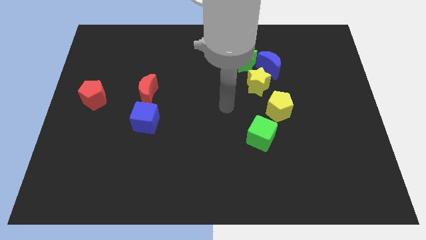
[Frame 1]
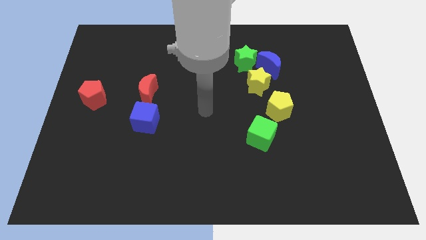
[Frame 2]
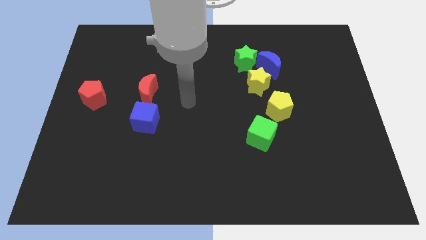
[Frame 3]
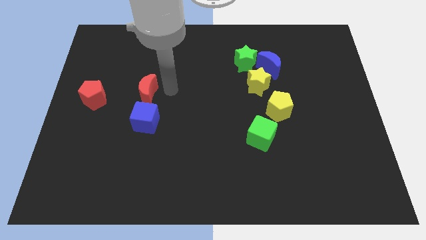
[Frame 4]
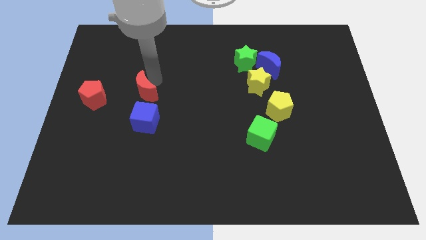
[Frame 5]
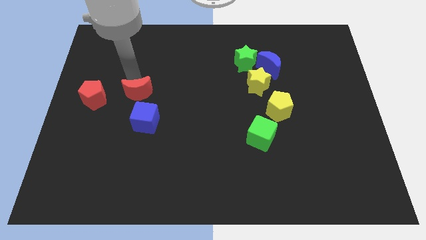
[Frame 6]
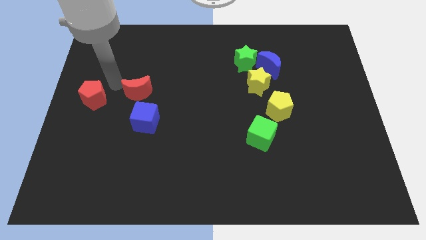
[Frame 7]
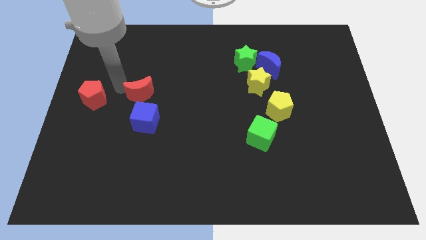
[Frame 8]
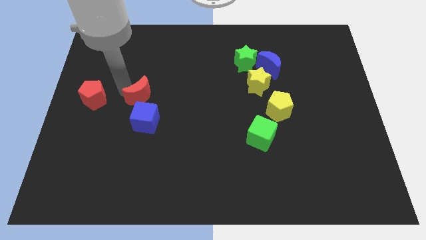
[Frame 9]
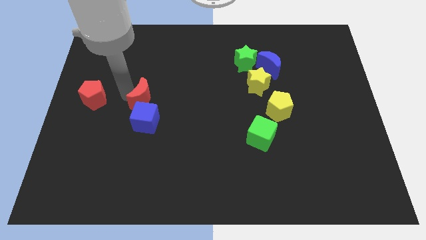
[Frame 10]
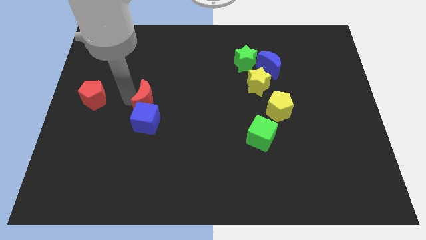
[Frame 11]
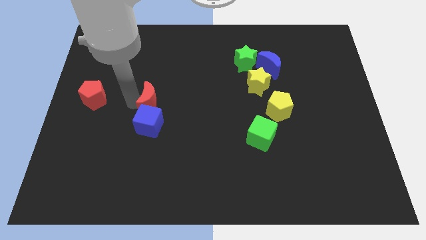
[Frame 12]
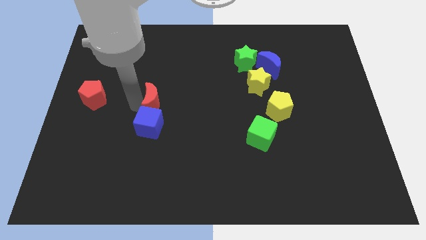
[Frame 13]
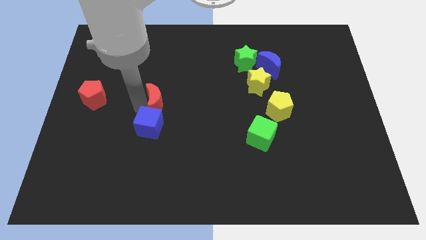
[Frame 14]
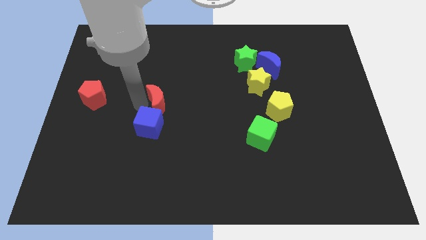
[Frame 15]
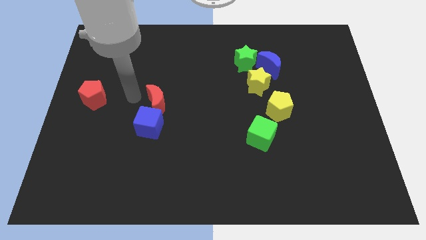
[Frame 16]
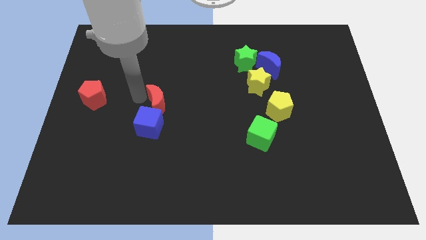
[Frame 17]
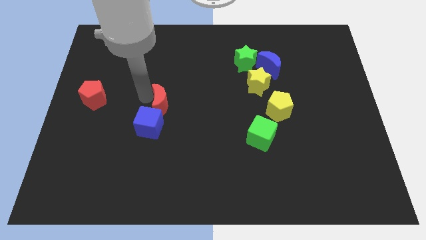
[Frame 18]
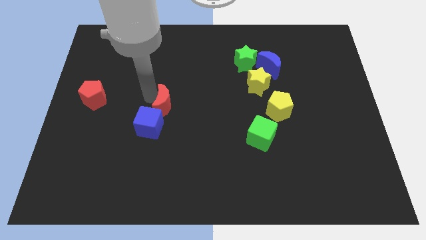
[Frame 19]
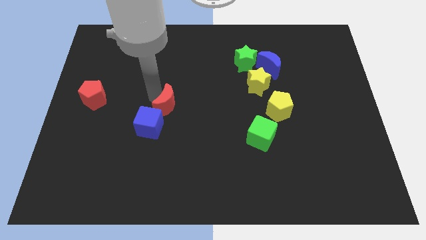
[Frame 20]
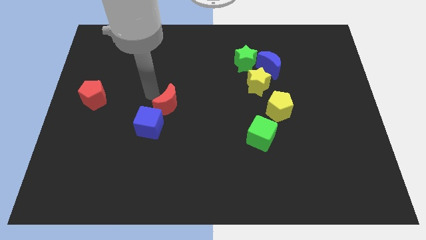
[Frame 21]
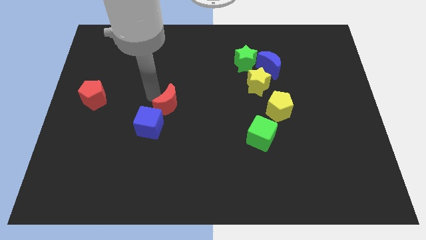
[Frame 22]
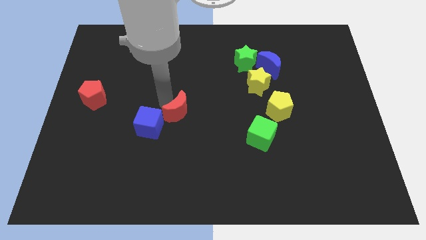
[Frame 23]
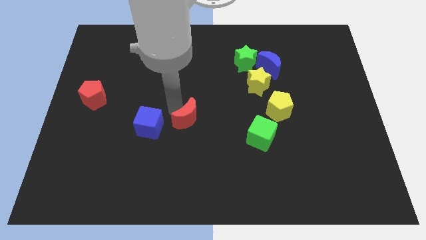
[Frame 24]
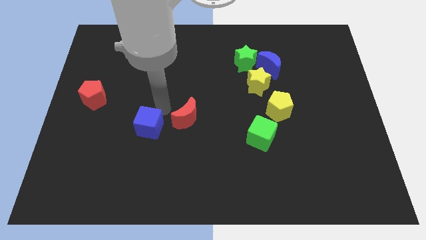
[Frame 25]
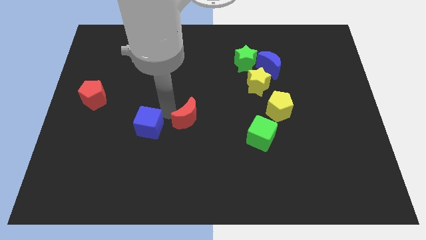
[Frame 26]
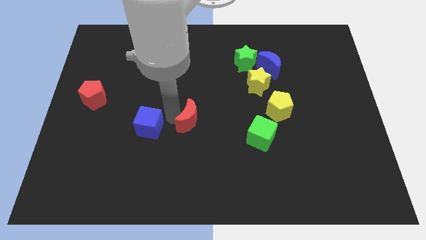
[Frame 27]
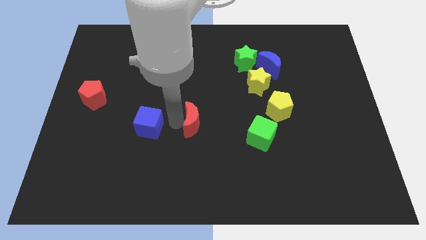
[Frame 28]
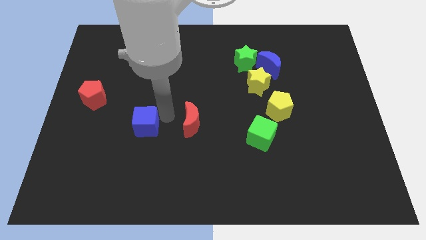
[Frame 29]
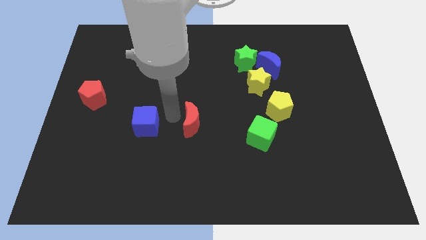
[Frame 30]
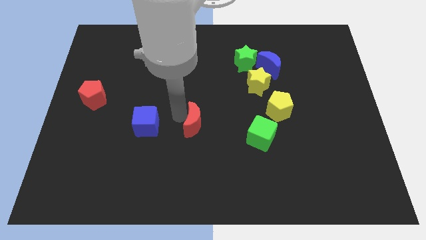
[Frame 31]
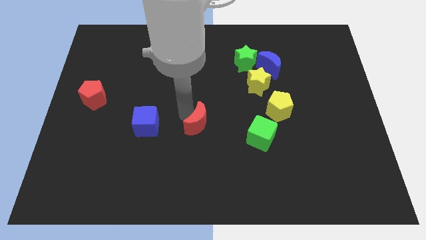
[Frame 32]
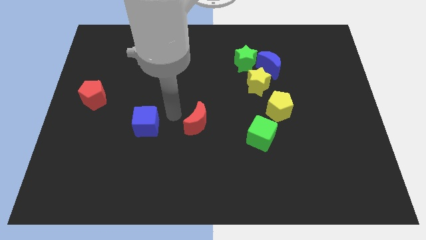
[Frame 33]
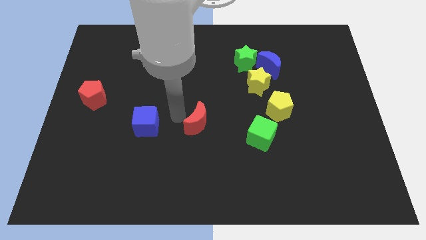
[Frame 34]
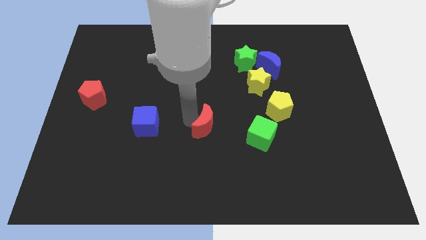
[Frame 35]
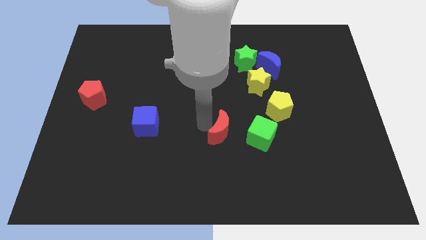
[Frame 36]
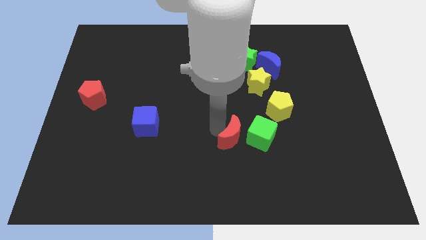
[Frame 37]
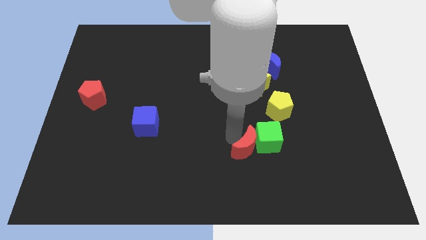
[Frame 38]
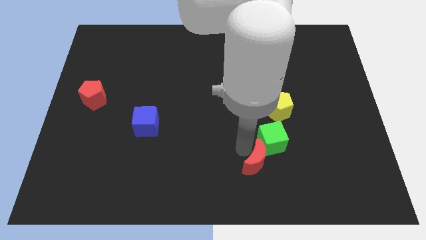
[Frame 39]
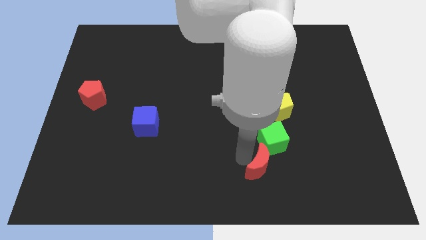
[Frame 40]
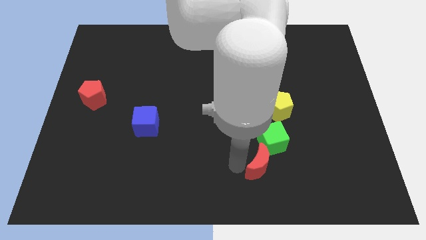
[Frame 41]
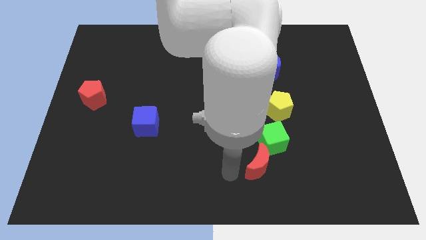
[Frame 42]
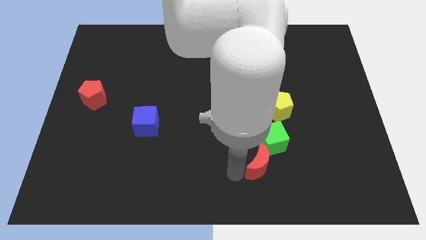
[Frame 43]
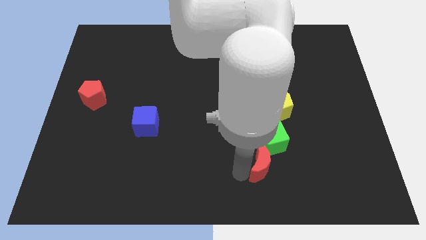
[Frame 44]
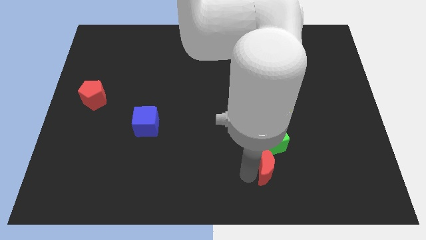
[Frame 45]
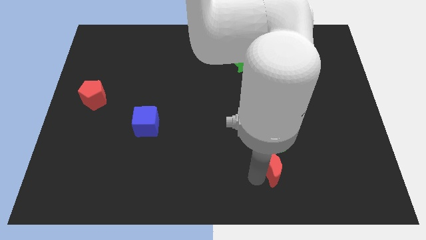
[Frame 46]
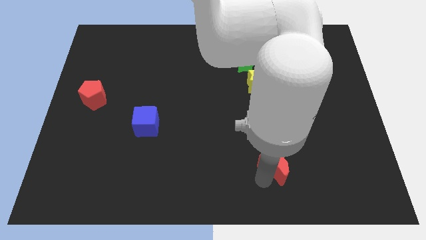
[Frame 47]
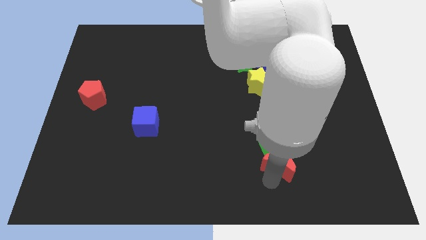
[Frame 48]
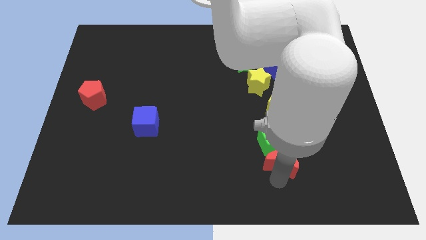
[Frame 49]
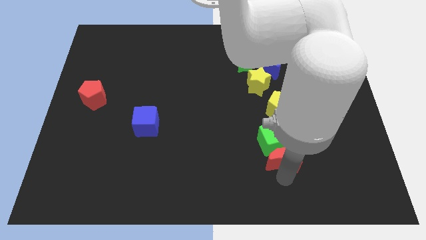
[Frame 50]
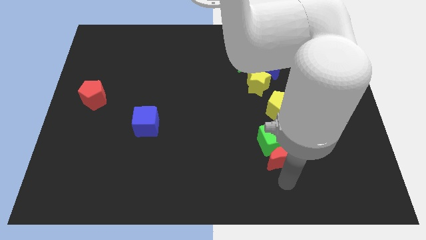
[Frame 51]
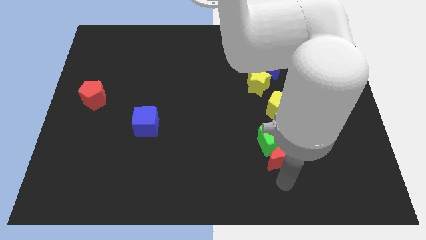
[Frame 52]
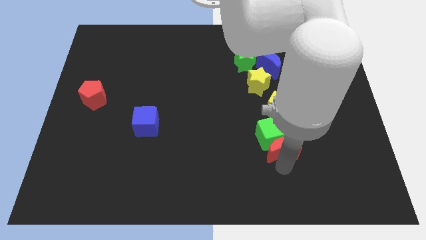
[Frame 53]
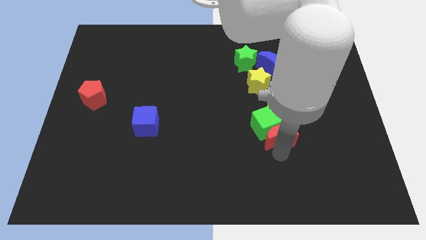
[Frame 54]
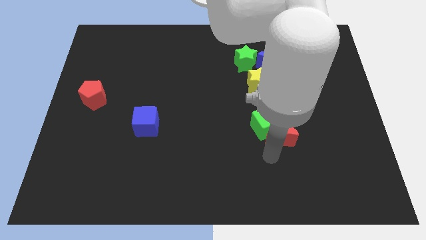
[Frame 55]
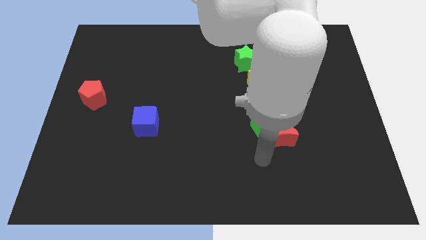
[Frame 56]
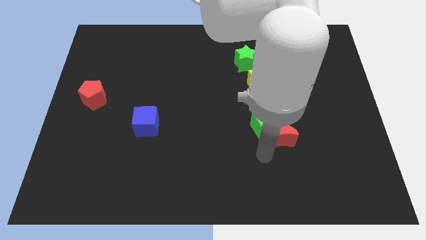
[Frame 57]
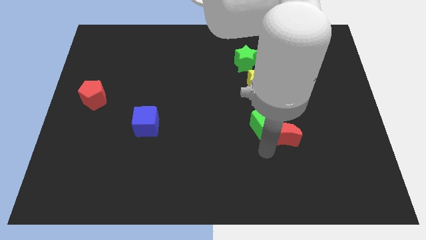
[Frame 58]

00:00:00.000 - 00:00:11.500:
slide the red moon to the right

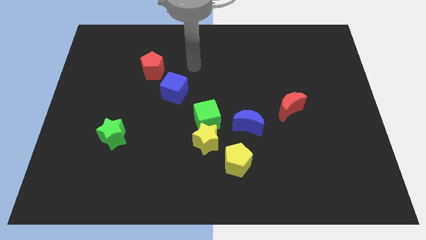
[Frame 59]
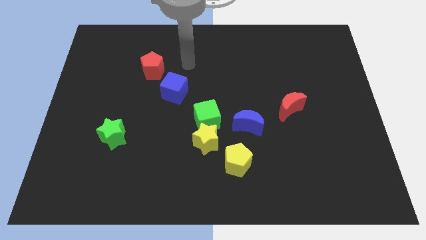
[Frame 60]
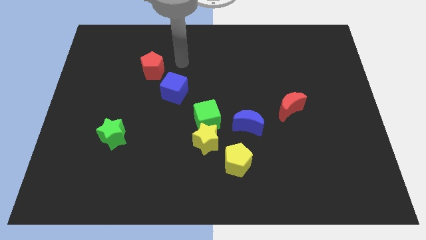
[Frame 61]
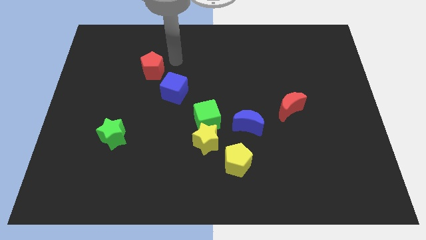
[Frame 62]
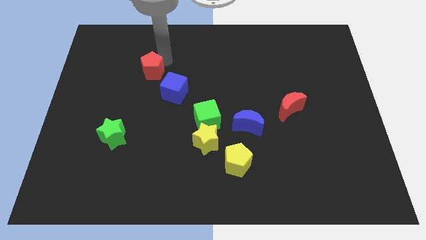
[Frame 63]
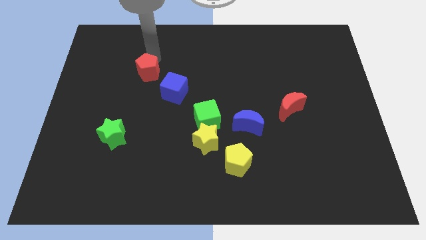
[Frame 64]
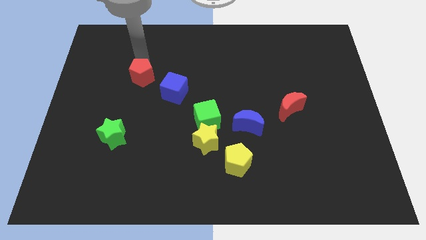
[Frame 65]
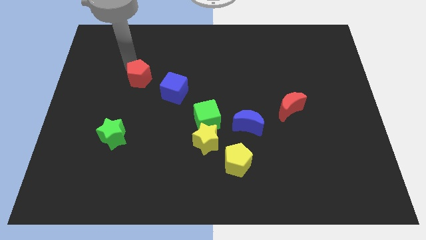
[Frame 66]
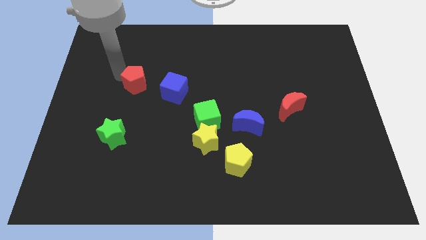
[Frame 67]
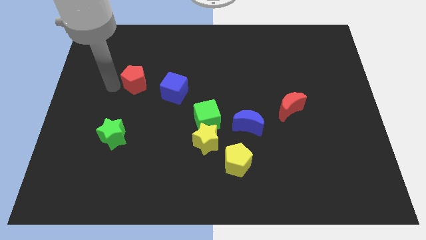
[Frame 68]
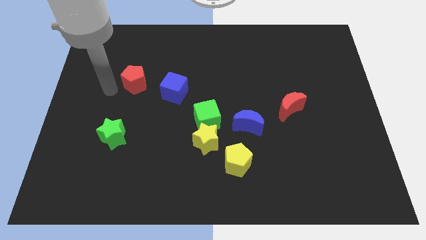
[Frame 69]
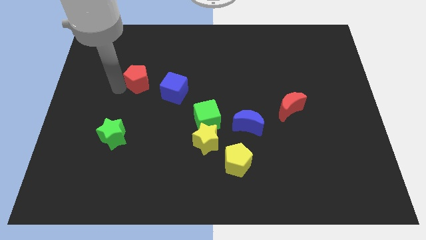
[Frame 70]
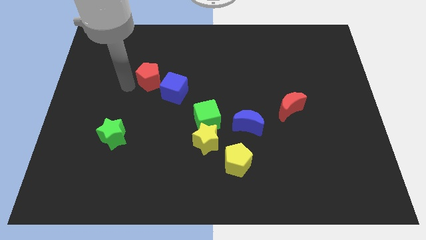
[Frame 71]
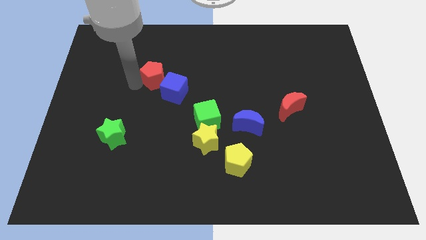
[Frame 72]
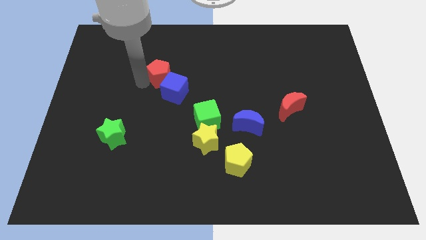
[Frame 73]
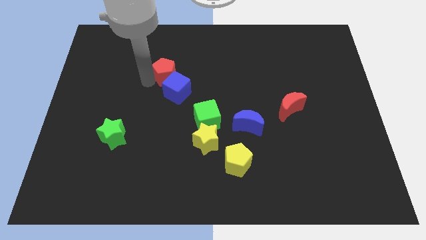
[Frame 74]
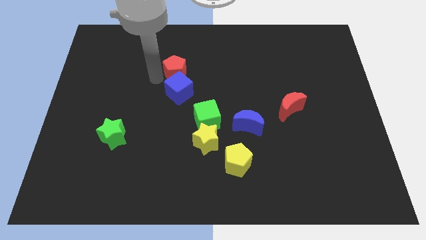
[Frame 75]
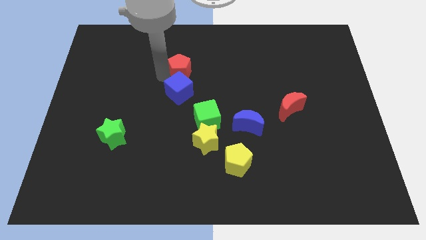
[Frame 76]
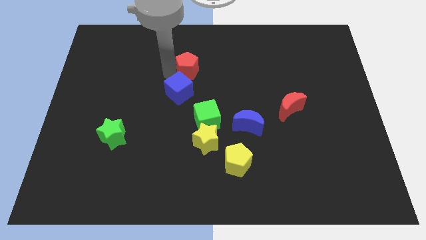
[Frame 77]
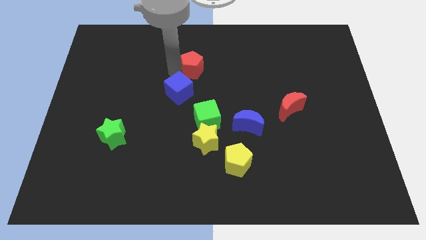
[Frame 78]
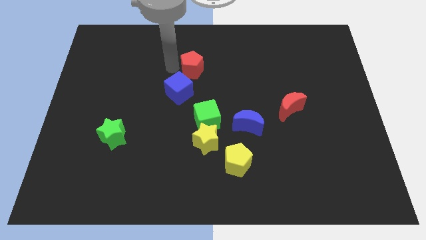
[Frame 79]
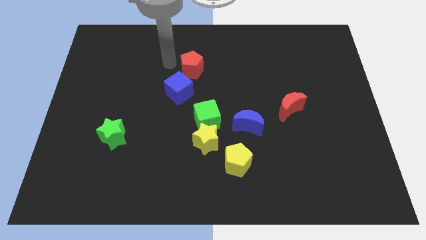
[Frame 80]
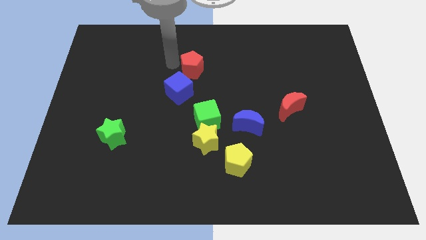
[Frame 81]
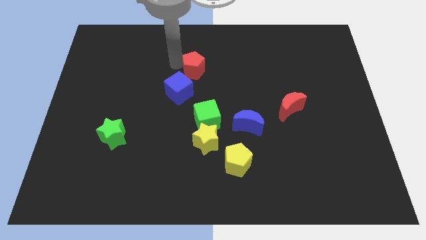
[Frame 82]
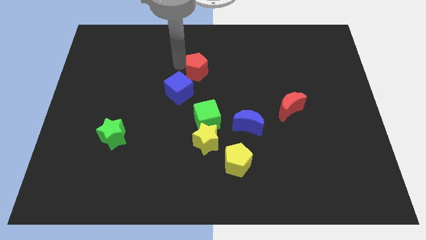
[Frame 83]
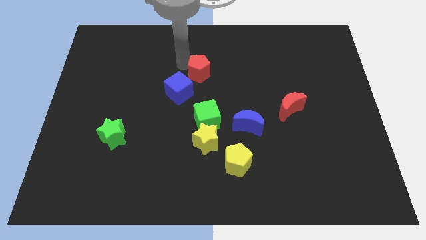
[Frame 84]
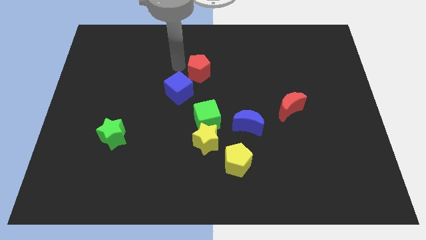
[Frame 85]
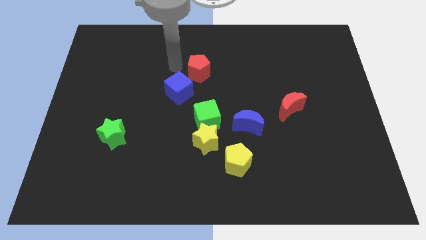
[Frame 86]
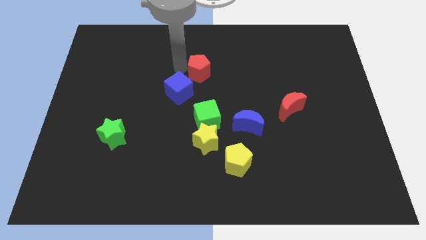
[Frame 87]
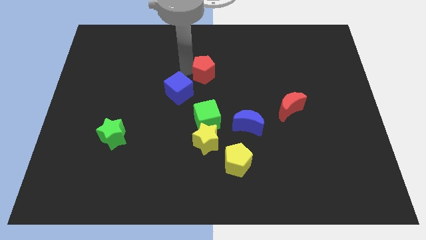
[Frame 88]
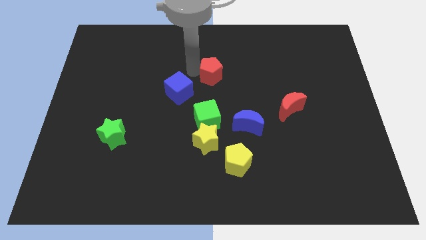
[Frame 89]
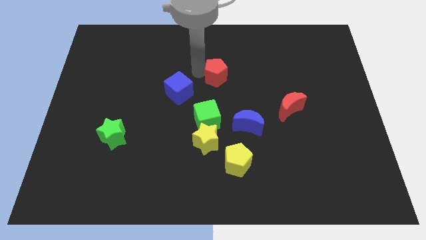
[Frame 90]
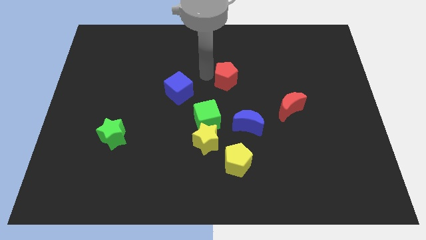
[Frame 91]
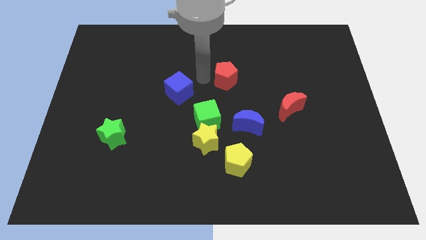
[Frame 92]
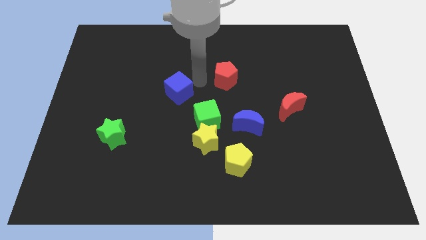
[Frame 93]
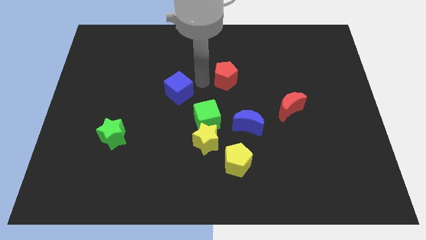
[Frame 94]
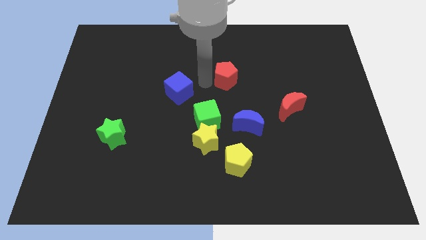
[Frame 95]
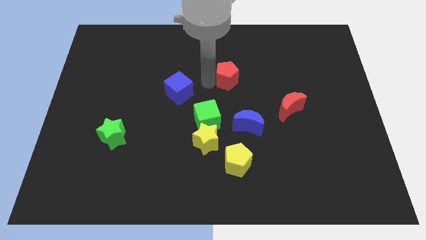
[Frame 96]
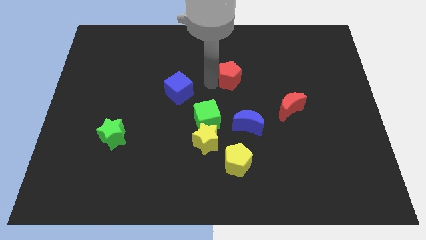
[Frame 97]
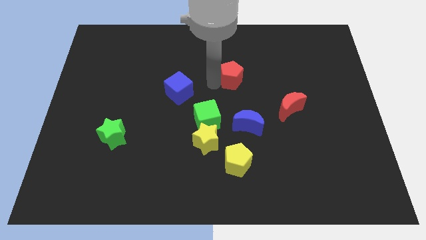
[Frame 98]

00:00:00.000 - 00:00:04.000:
move the red pentagon to the right
